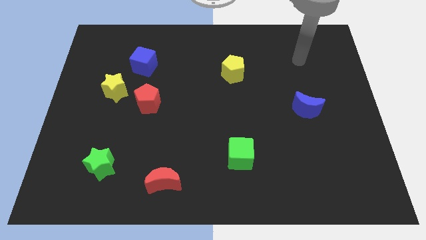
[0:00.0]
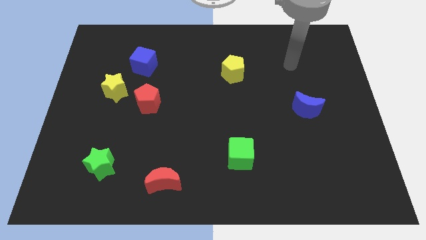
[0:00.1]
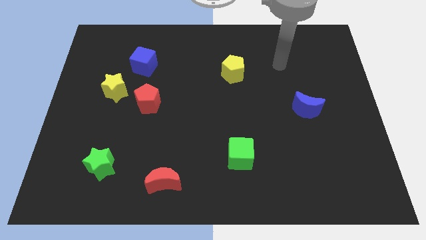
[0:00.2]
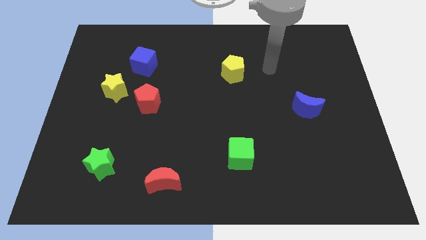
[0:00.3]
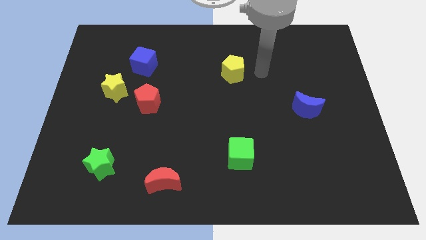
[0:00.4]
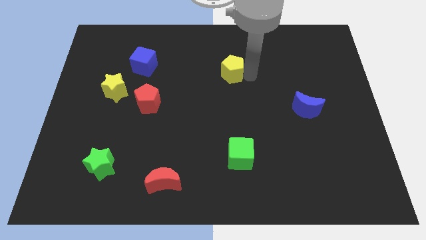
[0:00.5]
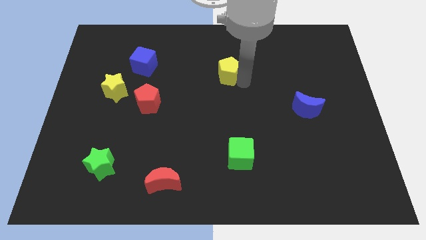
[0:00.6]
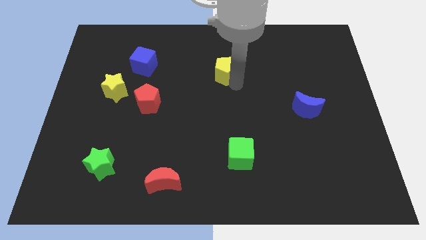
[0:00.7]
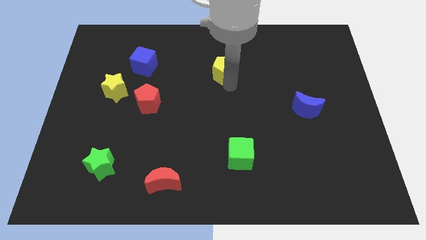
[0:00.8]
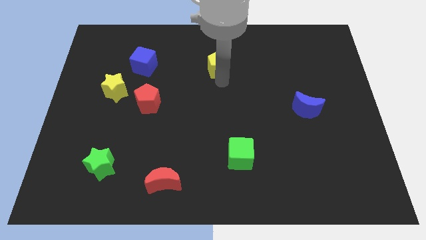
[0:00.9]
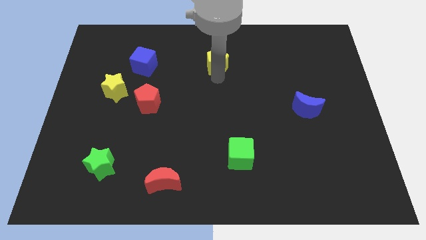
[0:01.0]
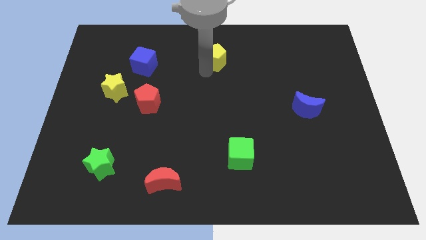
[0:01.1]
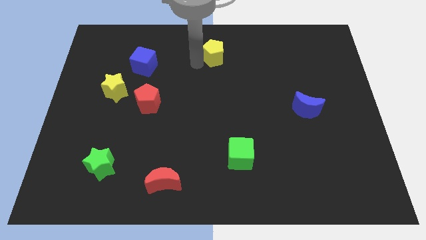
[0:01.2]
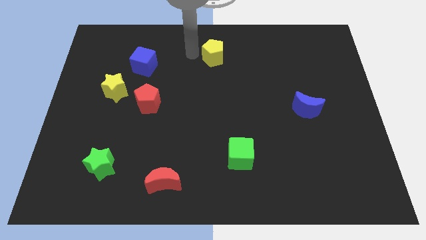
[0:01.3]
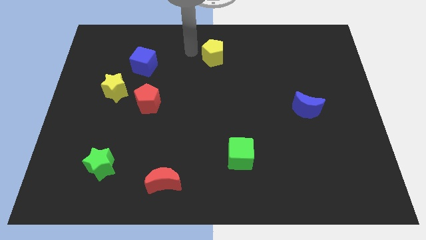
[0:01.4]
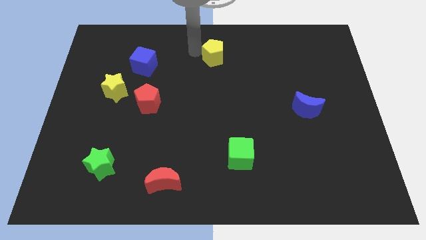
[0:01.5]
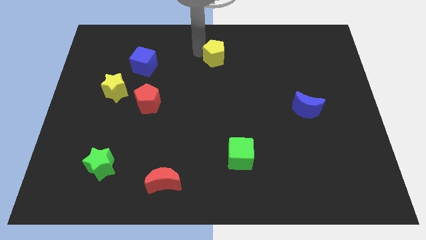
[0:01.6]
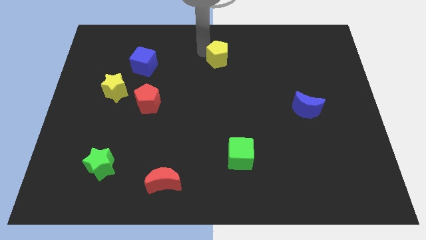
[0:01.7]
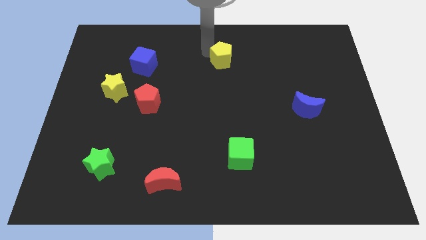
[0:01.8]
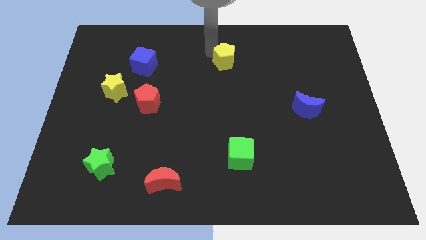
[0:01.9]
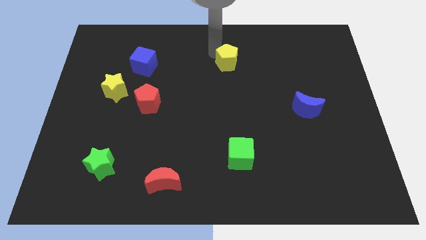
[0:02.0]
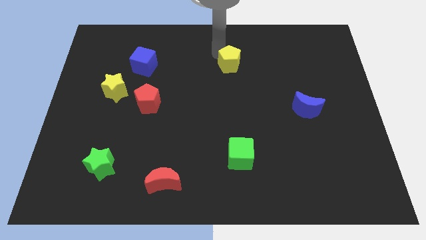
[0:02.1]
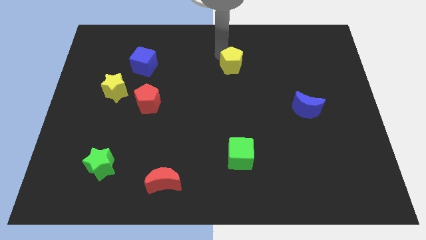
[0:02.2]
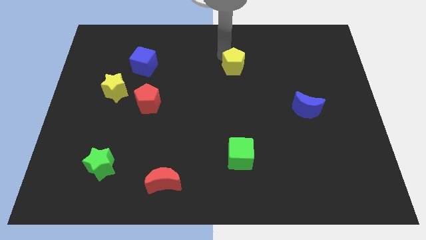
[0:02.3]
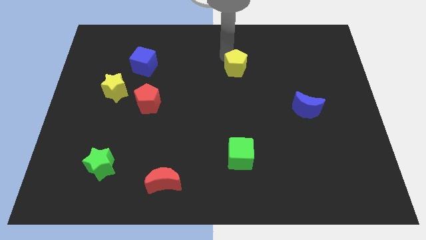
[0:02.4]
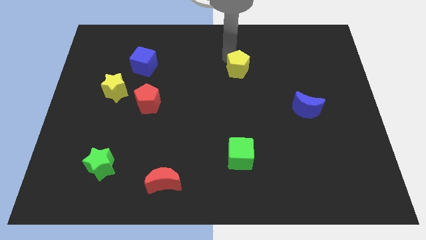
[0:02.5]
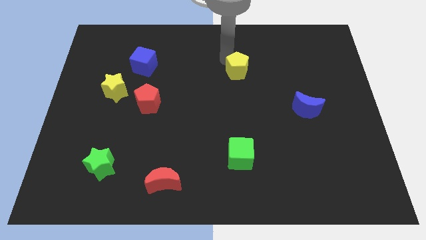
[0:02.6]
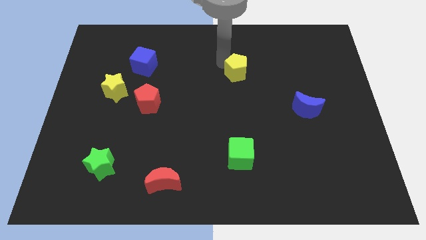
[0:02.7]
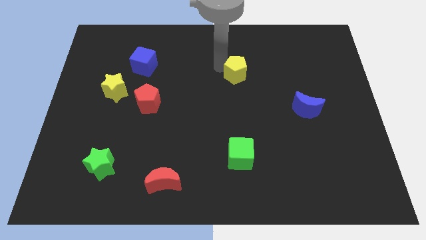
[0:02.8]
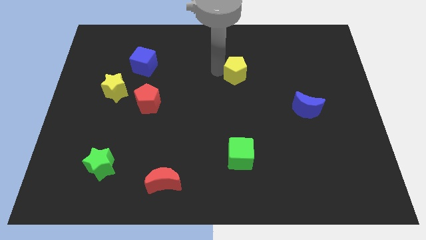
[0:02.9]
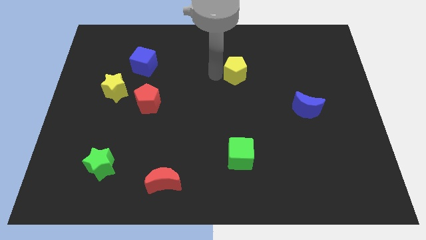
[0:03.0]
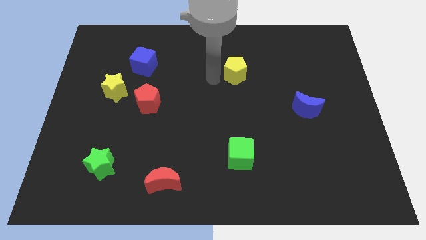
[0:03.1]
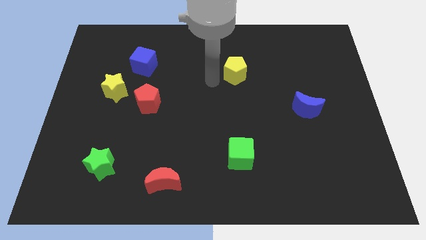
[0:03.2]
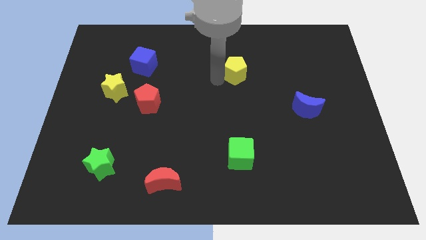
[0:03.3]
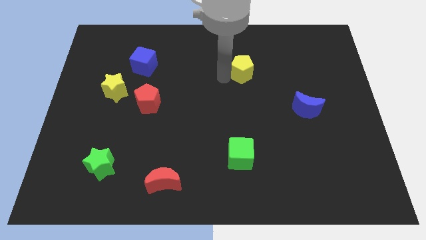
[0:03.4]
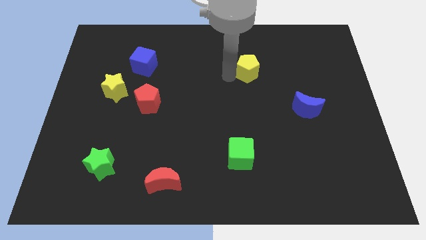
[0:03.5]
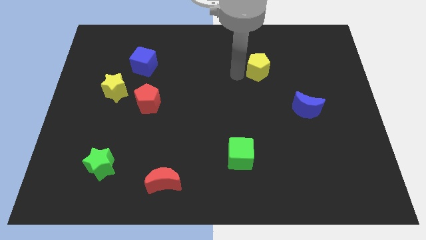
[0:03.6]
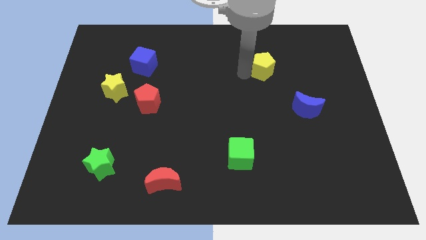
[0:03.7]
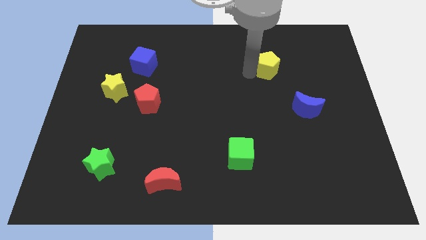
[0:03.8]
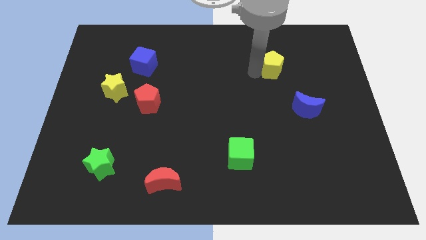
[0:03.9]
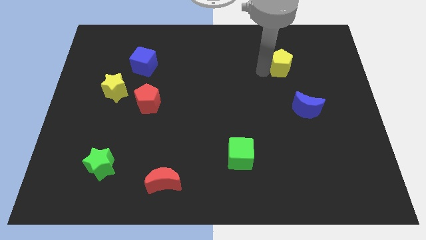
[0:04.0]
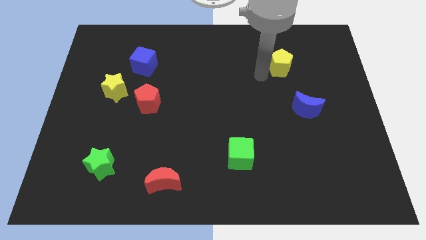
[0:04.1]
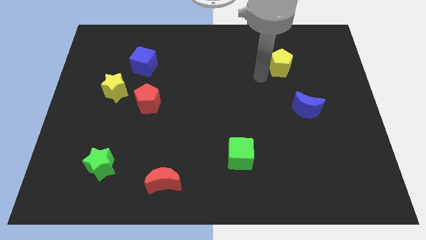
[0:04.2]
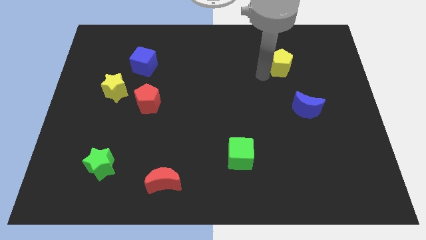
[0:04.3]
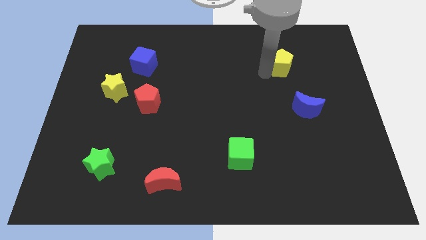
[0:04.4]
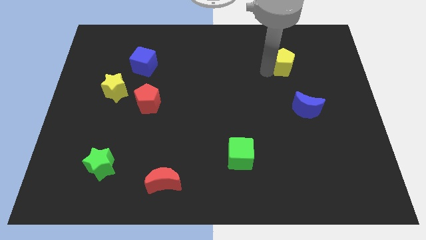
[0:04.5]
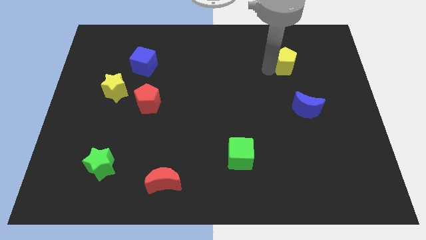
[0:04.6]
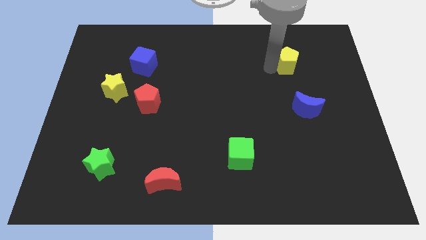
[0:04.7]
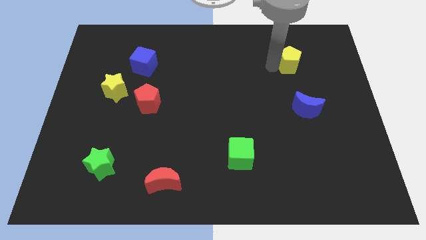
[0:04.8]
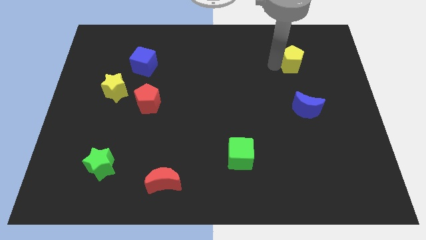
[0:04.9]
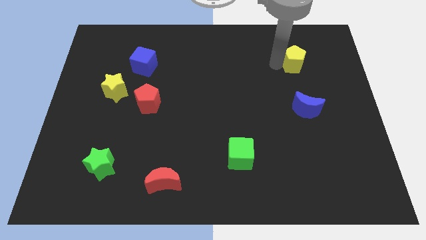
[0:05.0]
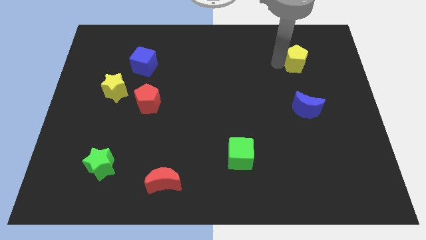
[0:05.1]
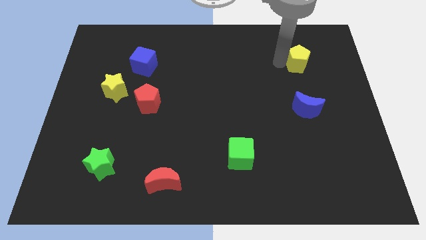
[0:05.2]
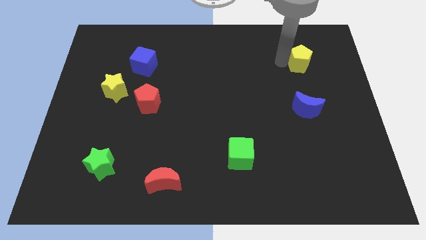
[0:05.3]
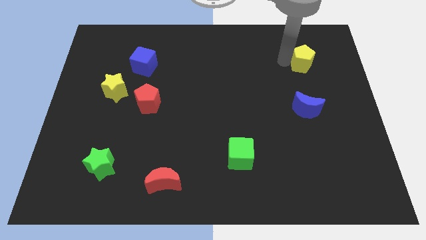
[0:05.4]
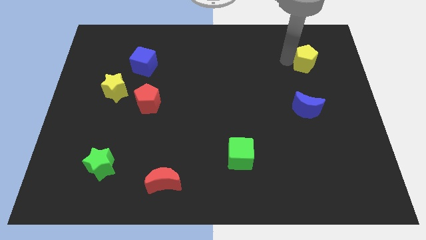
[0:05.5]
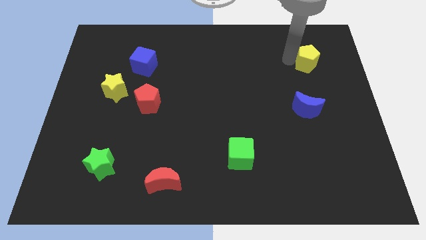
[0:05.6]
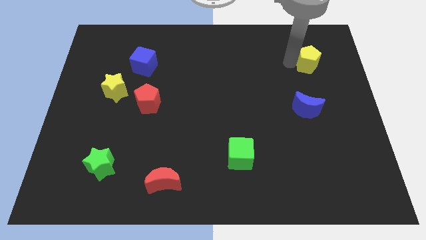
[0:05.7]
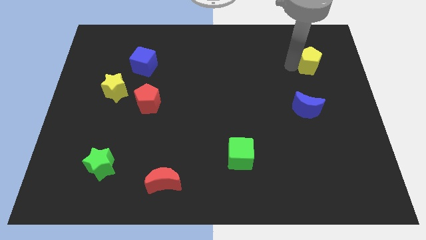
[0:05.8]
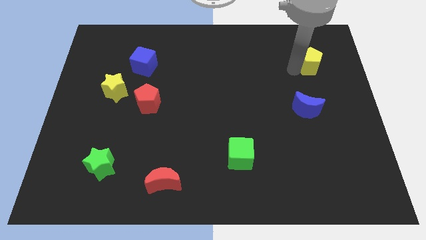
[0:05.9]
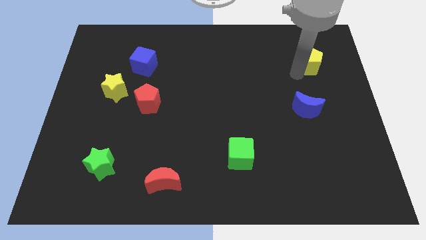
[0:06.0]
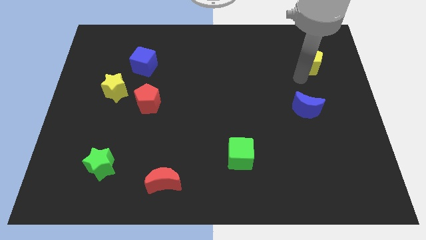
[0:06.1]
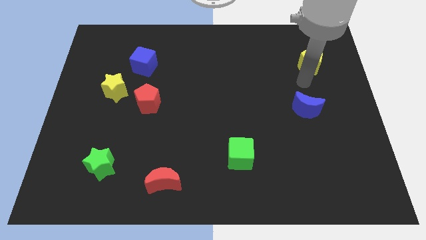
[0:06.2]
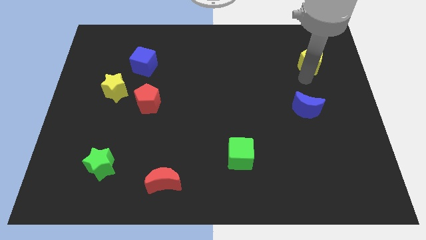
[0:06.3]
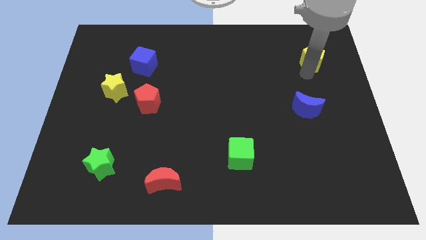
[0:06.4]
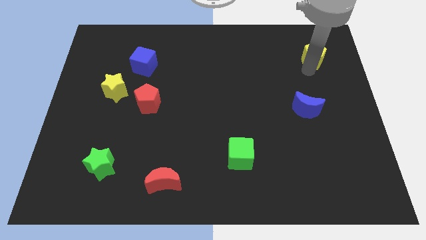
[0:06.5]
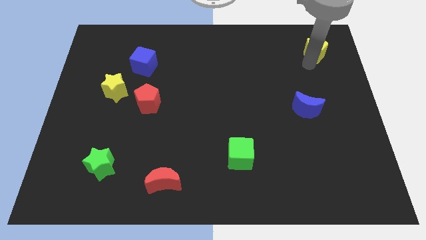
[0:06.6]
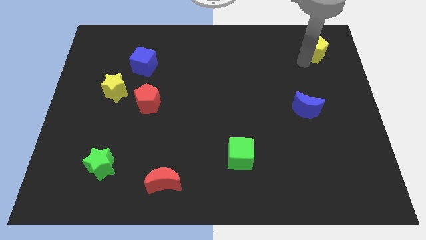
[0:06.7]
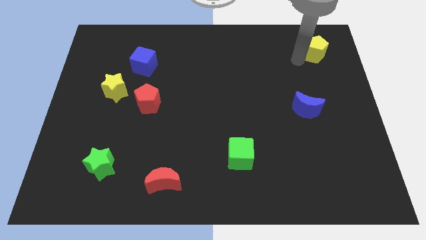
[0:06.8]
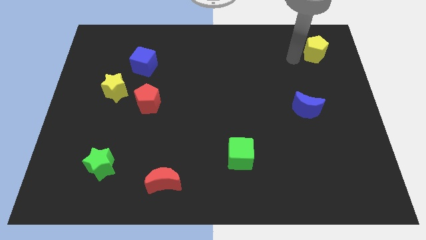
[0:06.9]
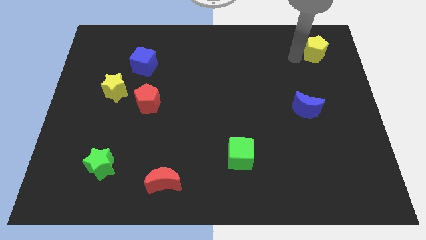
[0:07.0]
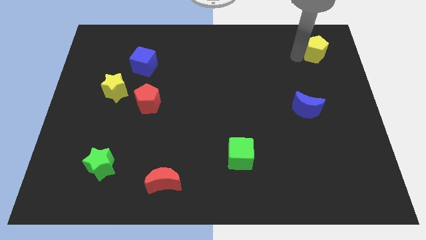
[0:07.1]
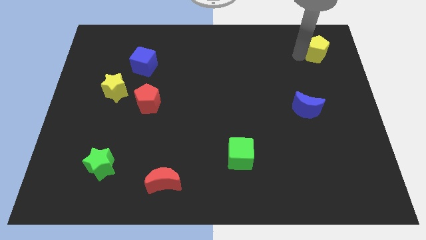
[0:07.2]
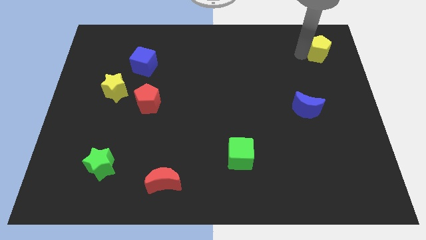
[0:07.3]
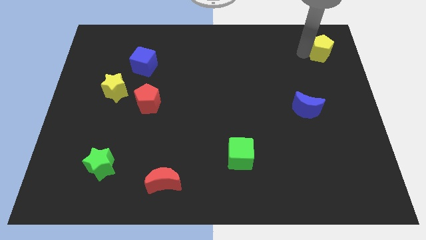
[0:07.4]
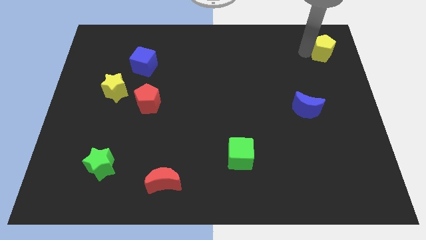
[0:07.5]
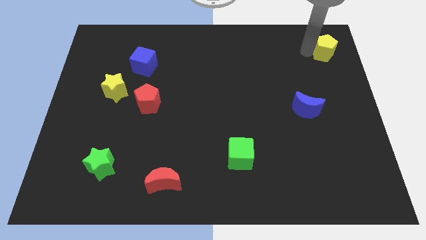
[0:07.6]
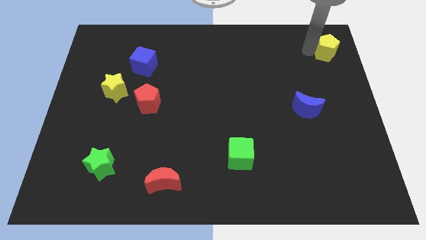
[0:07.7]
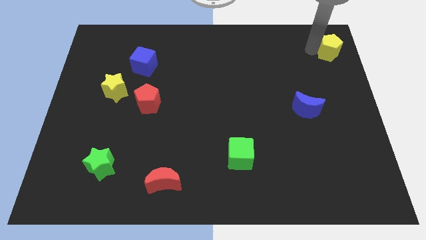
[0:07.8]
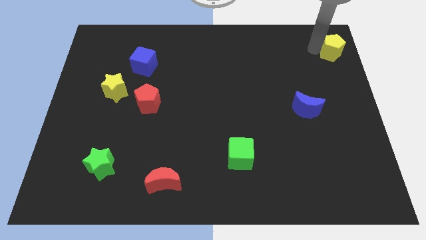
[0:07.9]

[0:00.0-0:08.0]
slide the yellow pentagon to the top right corner
